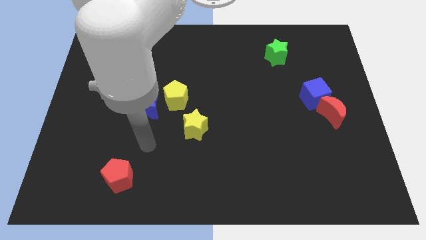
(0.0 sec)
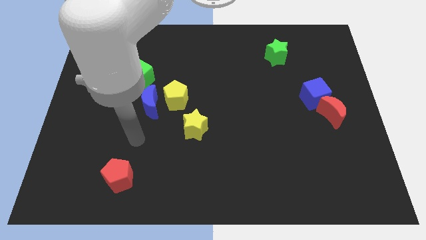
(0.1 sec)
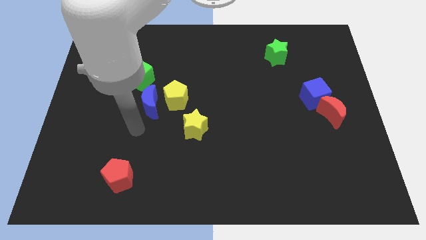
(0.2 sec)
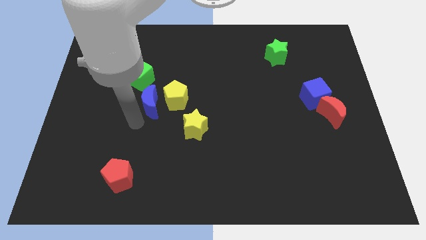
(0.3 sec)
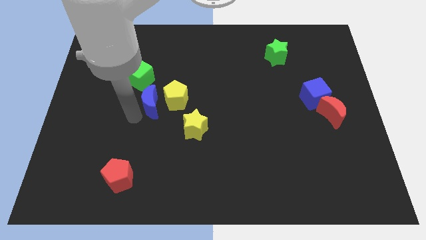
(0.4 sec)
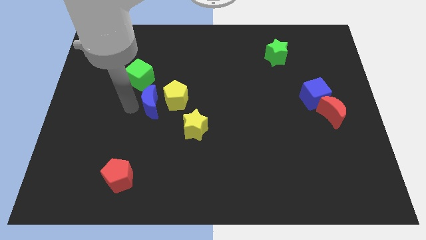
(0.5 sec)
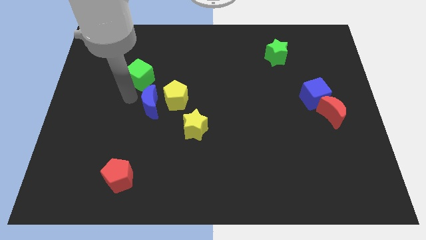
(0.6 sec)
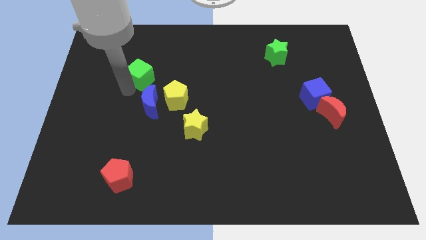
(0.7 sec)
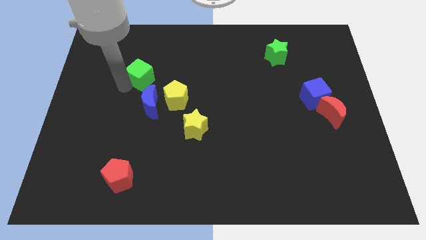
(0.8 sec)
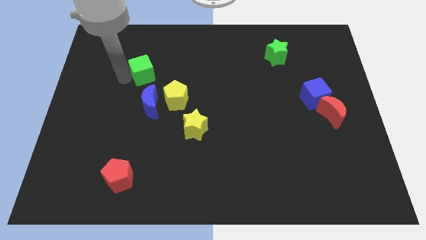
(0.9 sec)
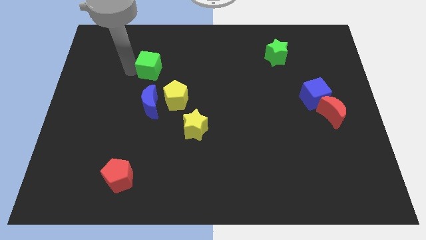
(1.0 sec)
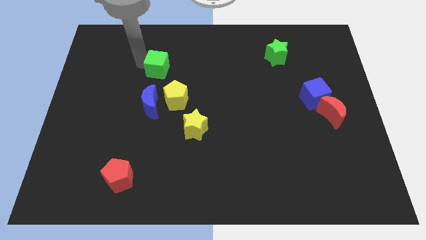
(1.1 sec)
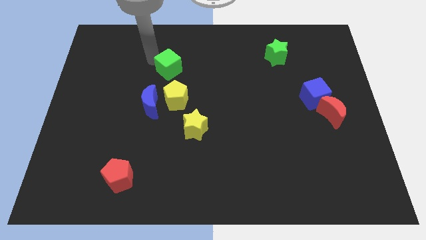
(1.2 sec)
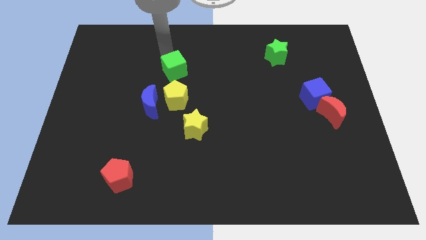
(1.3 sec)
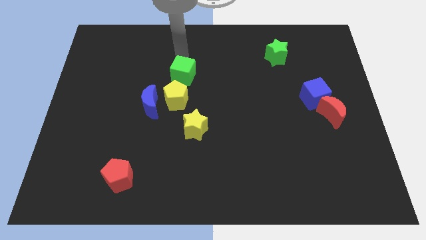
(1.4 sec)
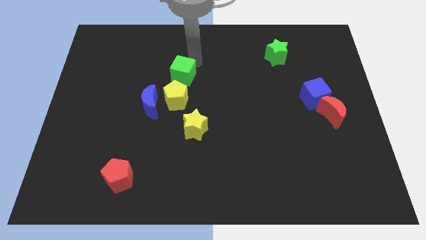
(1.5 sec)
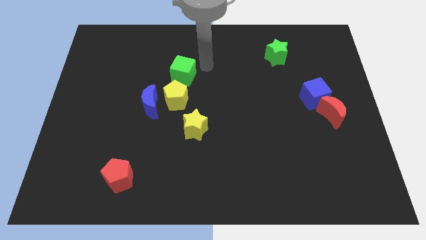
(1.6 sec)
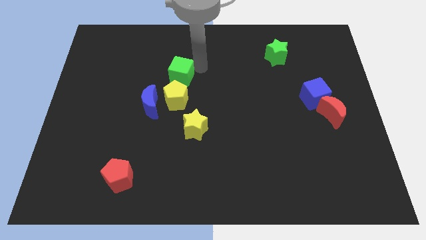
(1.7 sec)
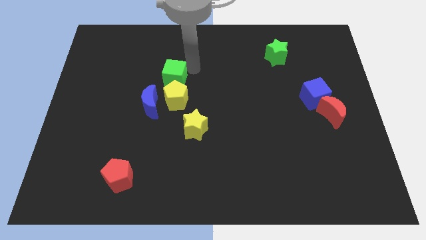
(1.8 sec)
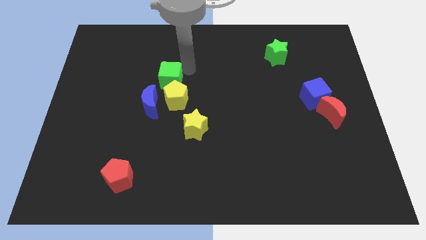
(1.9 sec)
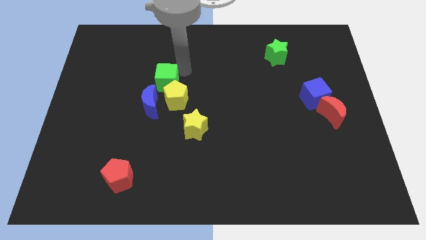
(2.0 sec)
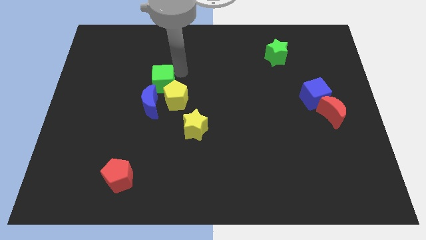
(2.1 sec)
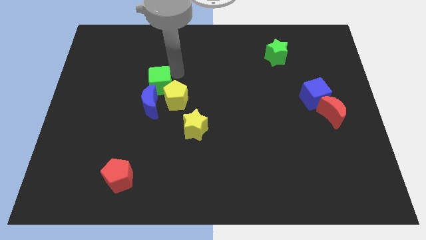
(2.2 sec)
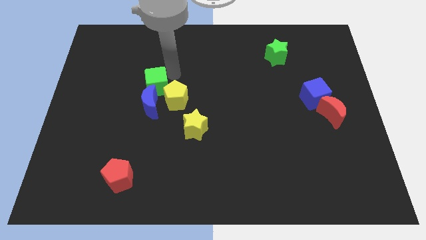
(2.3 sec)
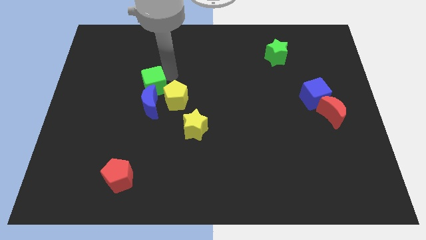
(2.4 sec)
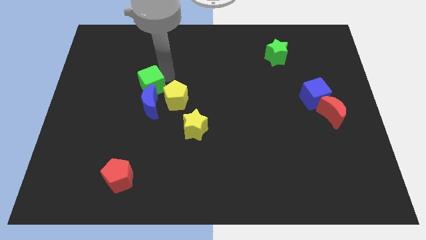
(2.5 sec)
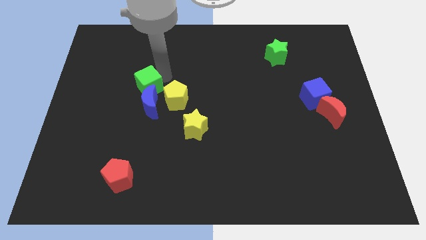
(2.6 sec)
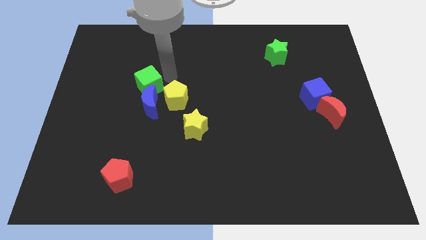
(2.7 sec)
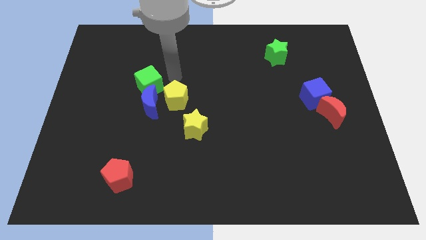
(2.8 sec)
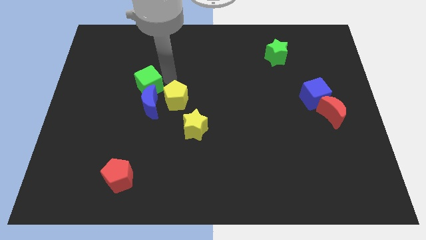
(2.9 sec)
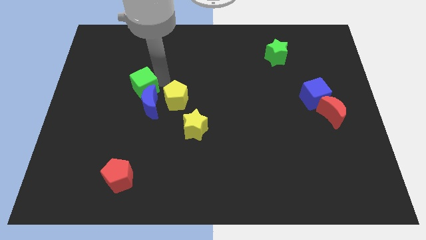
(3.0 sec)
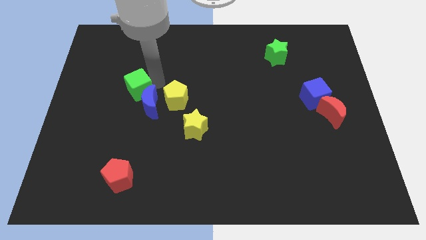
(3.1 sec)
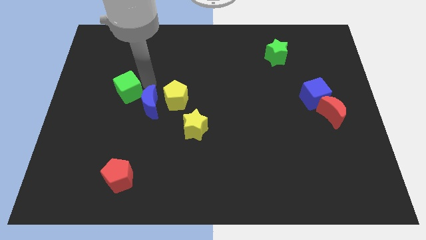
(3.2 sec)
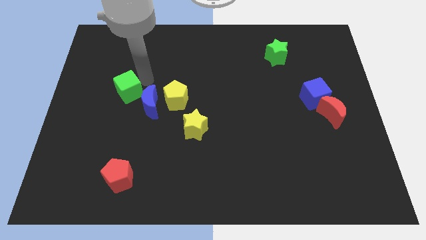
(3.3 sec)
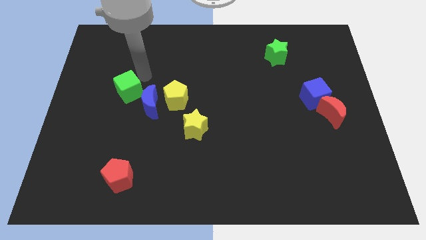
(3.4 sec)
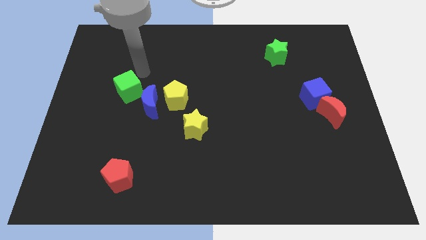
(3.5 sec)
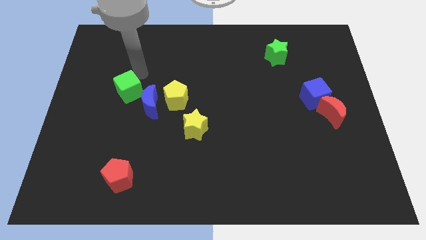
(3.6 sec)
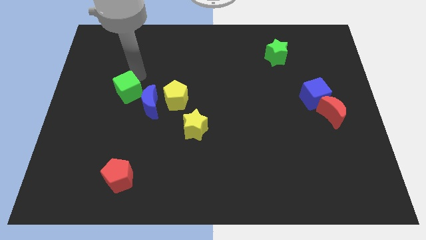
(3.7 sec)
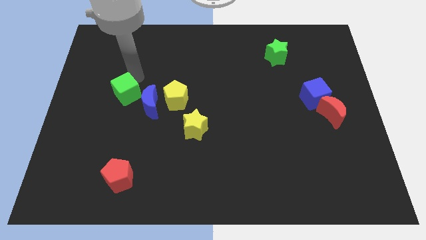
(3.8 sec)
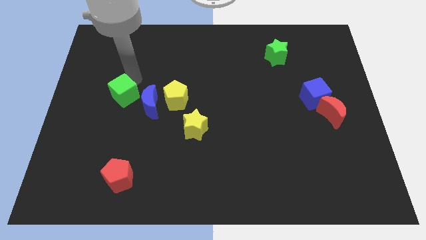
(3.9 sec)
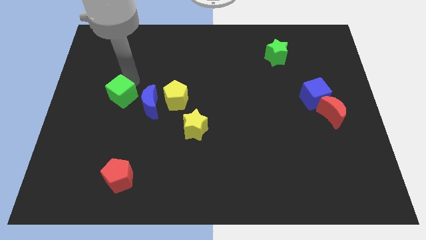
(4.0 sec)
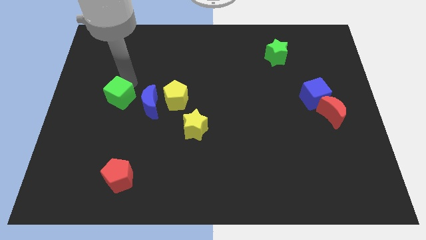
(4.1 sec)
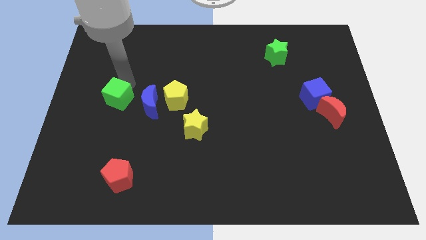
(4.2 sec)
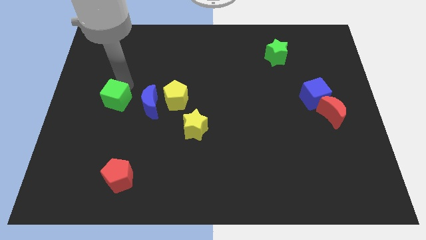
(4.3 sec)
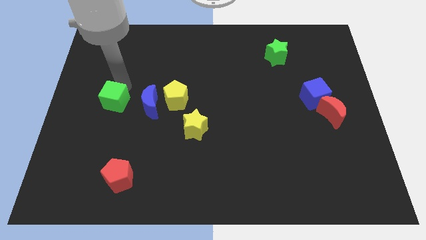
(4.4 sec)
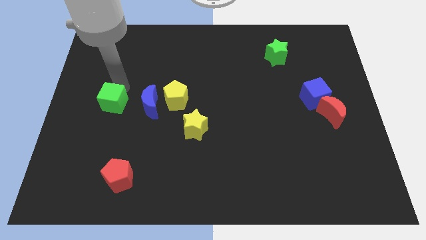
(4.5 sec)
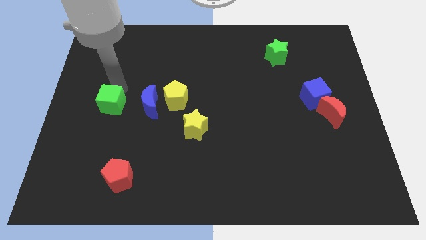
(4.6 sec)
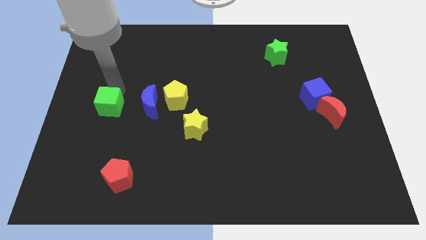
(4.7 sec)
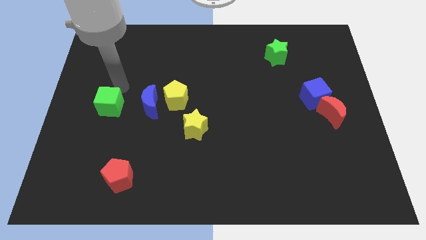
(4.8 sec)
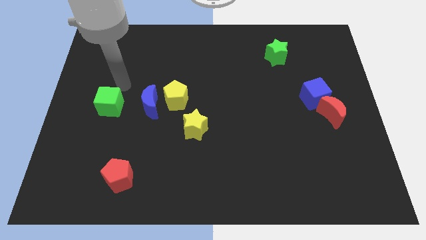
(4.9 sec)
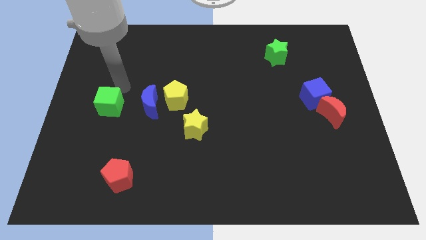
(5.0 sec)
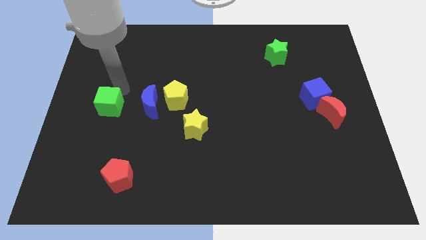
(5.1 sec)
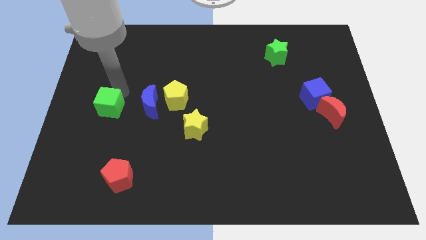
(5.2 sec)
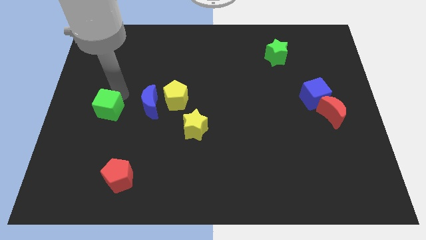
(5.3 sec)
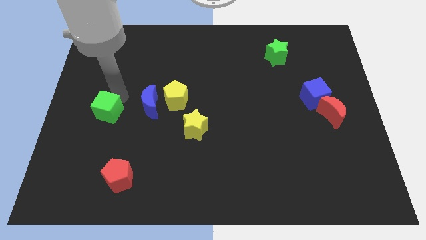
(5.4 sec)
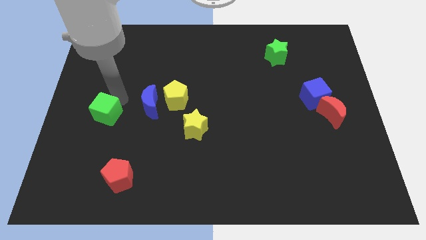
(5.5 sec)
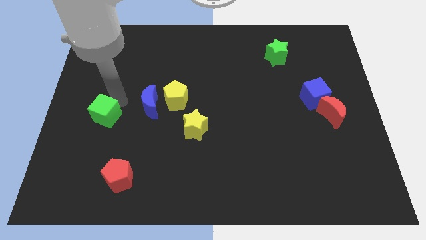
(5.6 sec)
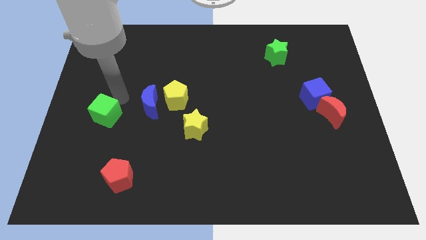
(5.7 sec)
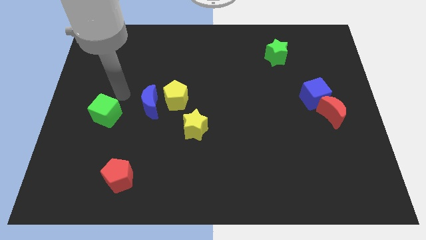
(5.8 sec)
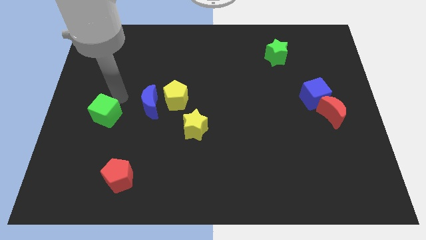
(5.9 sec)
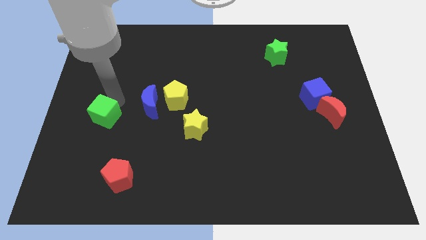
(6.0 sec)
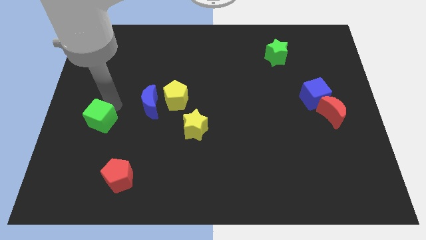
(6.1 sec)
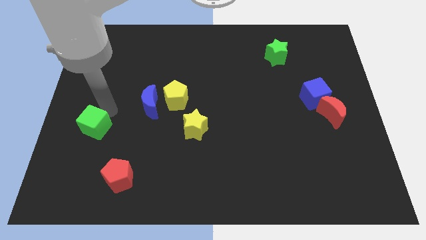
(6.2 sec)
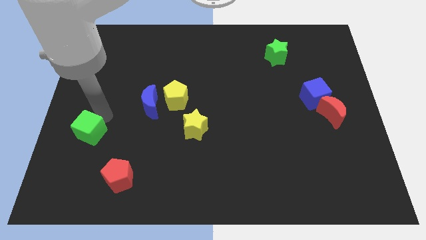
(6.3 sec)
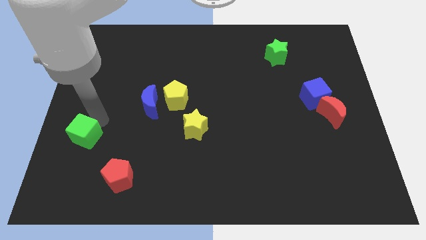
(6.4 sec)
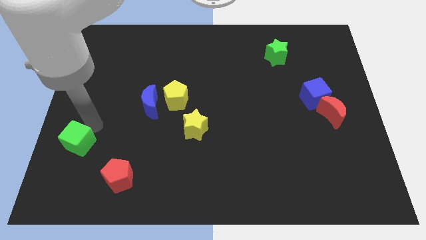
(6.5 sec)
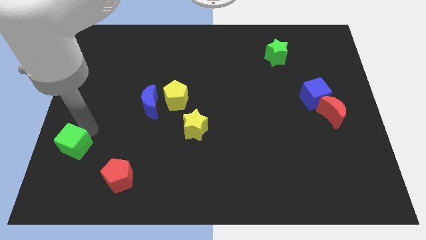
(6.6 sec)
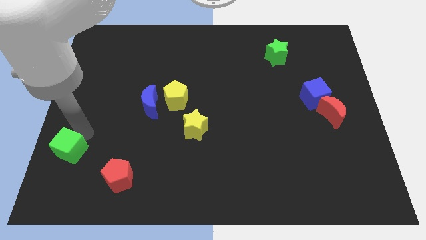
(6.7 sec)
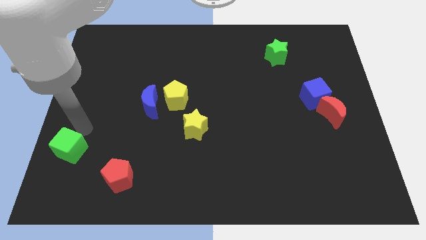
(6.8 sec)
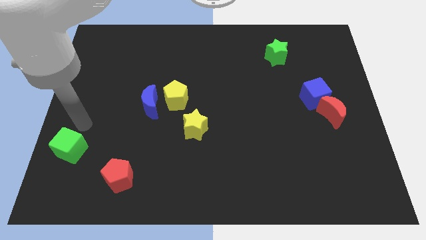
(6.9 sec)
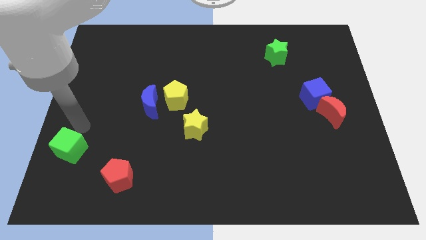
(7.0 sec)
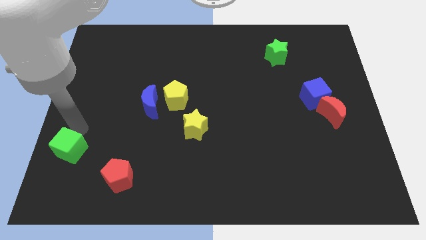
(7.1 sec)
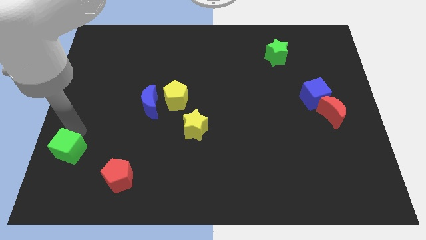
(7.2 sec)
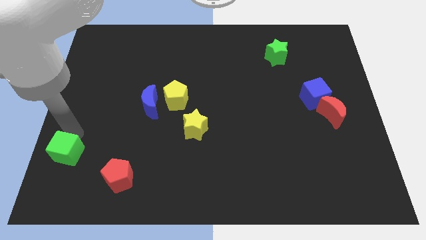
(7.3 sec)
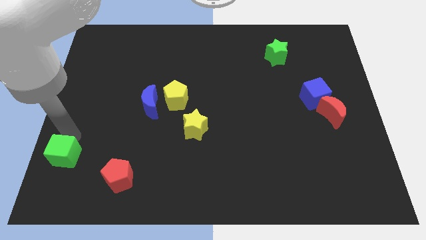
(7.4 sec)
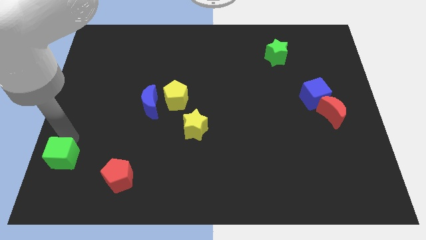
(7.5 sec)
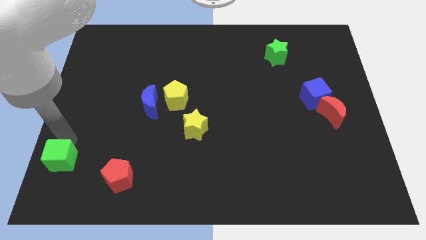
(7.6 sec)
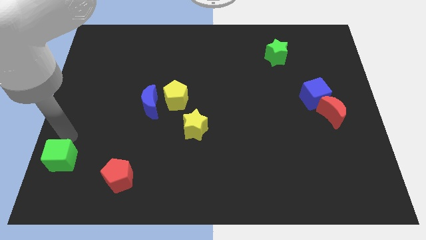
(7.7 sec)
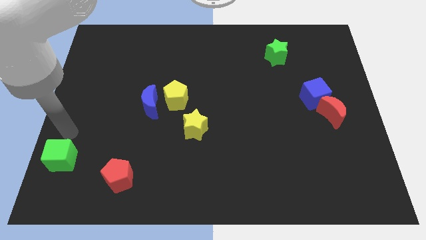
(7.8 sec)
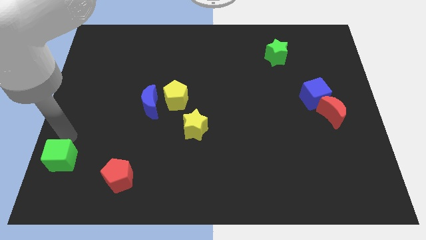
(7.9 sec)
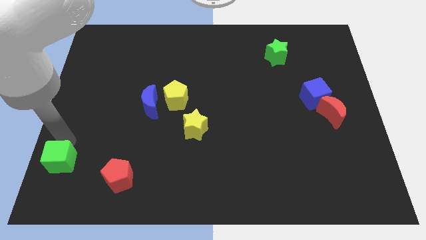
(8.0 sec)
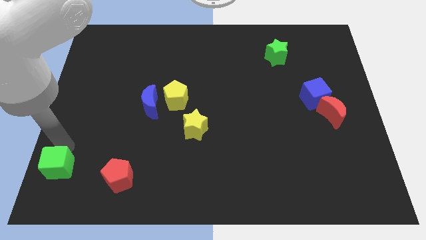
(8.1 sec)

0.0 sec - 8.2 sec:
slide the green cube to the bottom left
